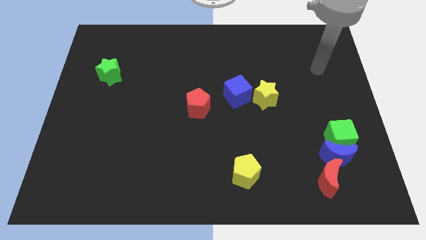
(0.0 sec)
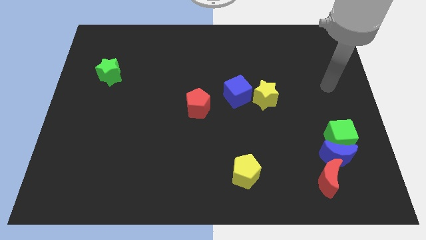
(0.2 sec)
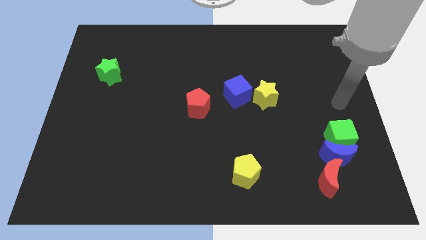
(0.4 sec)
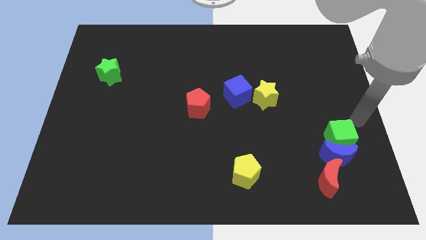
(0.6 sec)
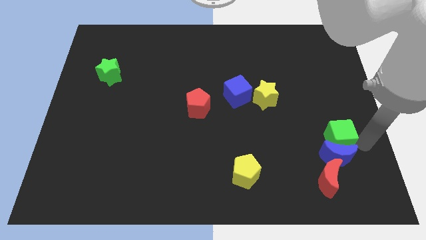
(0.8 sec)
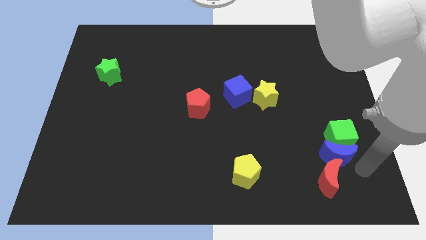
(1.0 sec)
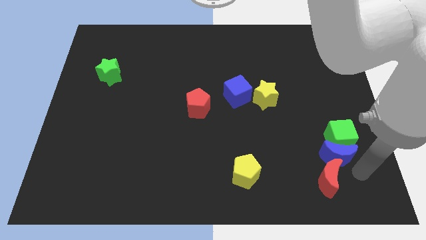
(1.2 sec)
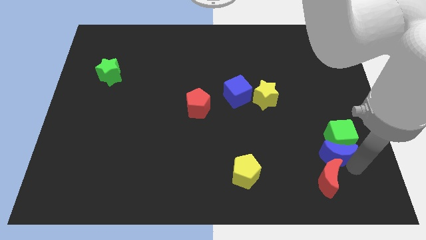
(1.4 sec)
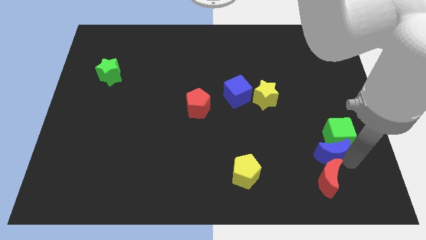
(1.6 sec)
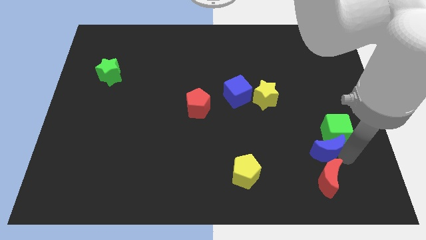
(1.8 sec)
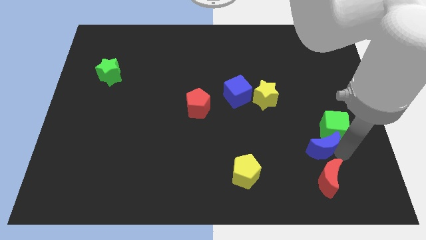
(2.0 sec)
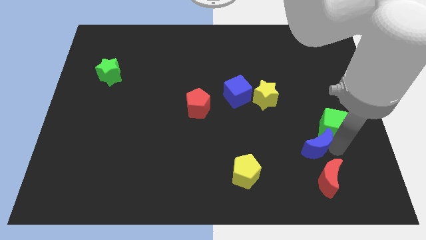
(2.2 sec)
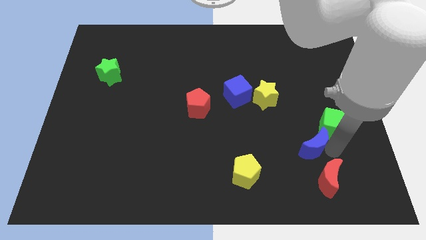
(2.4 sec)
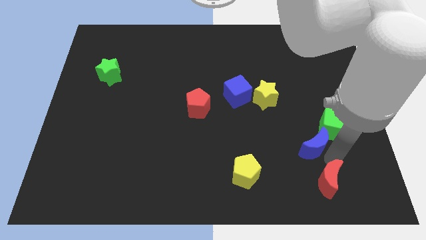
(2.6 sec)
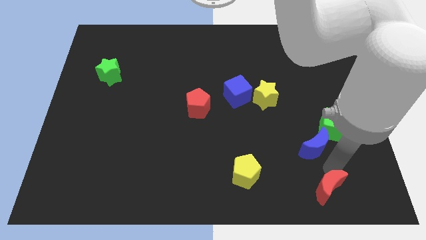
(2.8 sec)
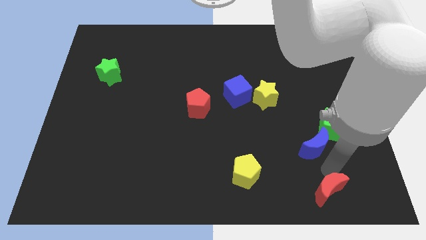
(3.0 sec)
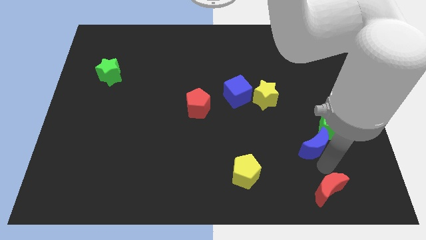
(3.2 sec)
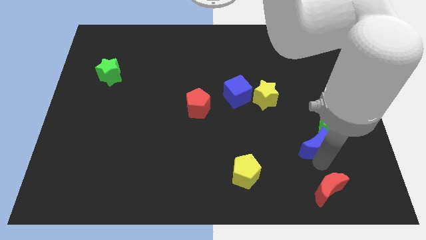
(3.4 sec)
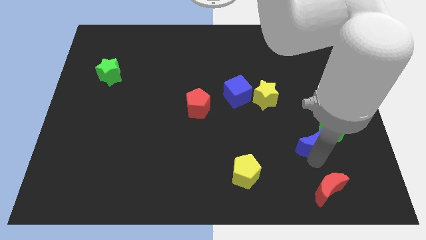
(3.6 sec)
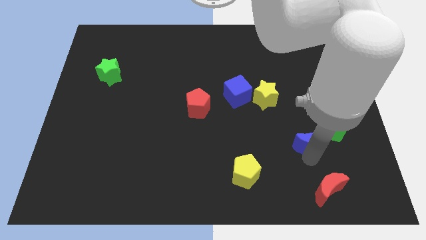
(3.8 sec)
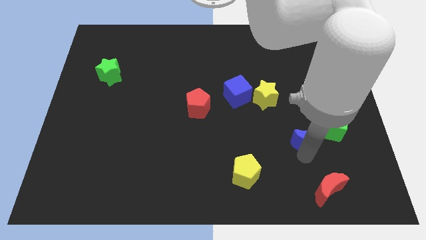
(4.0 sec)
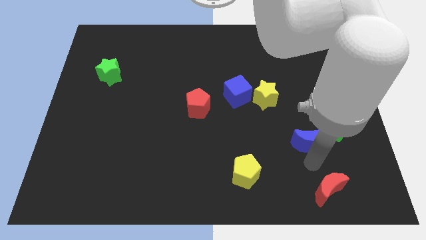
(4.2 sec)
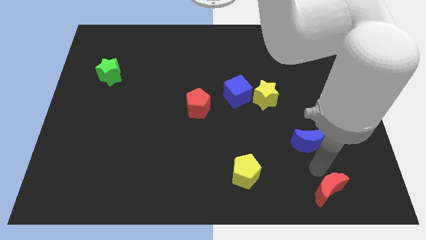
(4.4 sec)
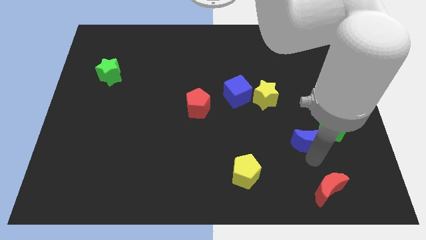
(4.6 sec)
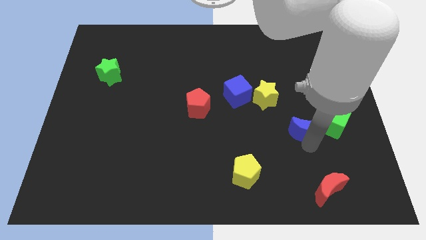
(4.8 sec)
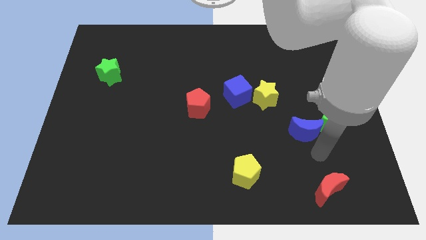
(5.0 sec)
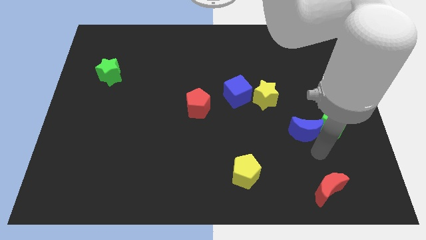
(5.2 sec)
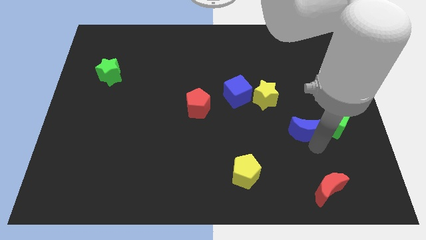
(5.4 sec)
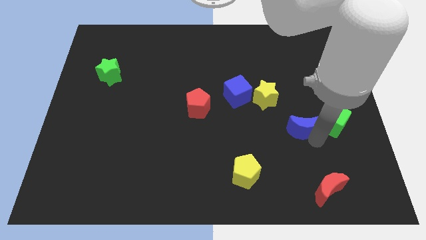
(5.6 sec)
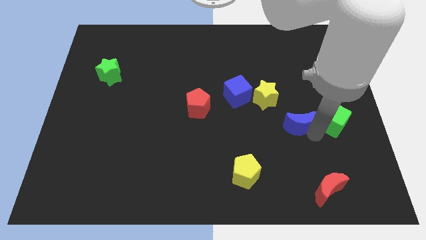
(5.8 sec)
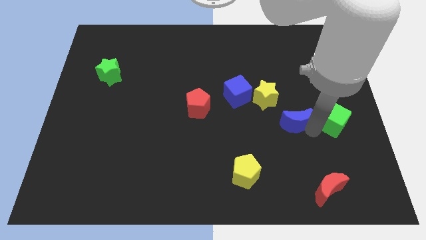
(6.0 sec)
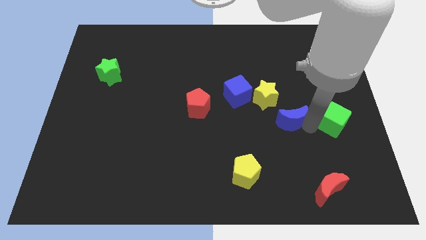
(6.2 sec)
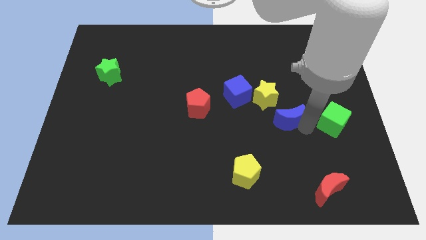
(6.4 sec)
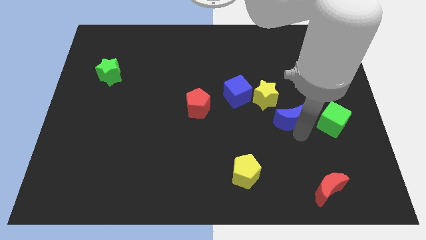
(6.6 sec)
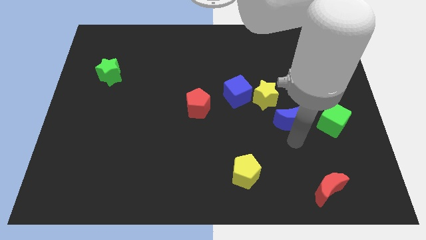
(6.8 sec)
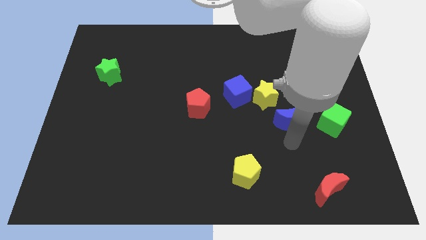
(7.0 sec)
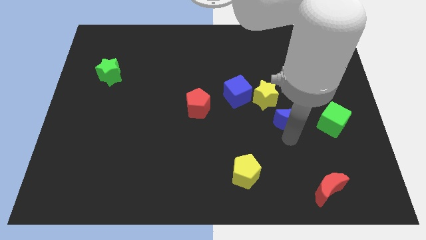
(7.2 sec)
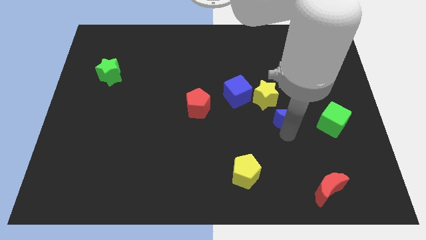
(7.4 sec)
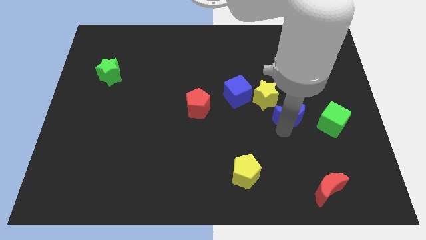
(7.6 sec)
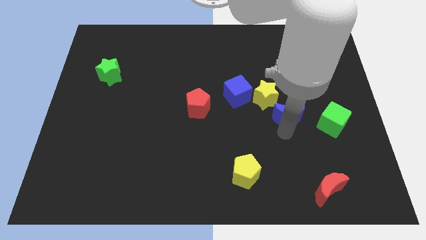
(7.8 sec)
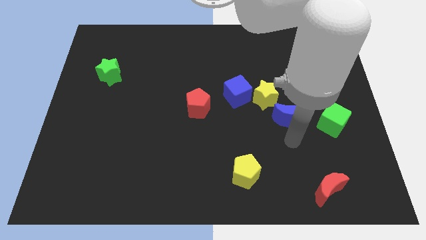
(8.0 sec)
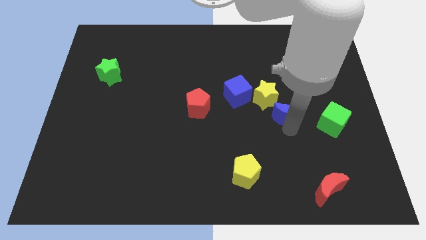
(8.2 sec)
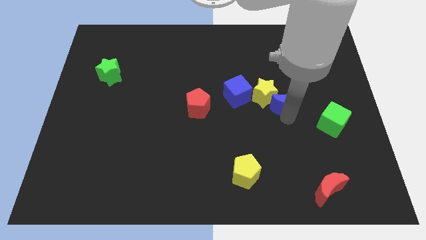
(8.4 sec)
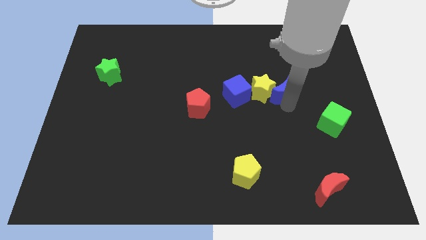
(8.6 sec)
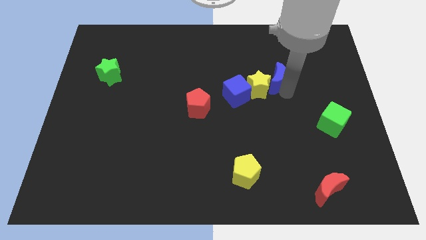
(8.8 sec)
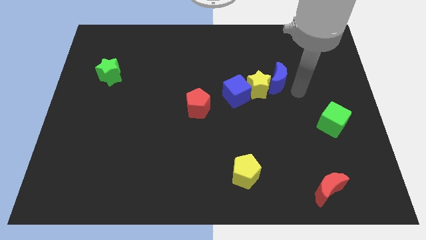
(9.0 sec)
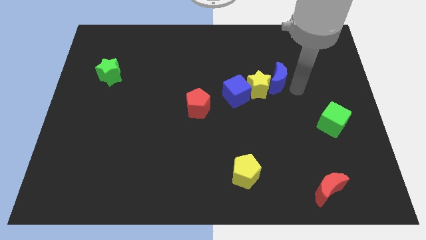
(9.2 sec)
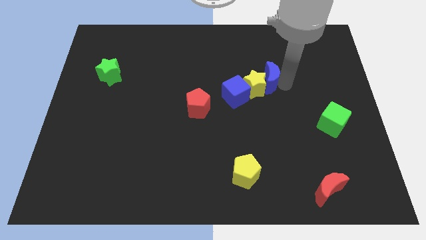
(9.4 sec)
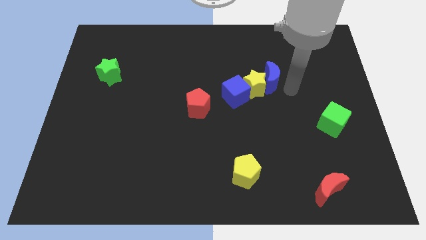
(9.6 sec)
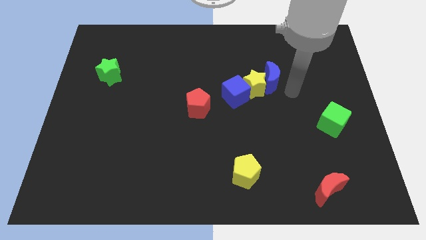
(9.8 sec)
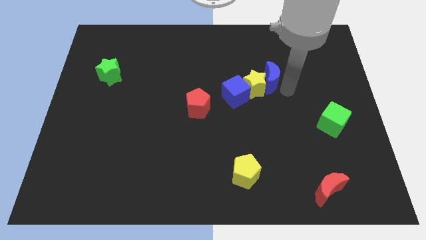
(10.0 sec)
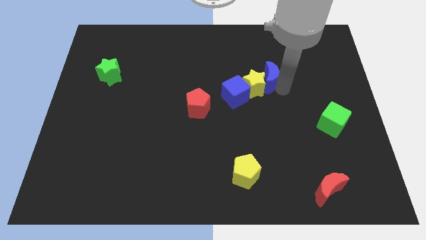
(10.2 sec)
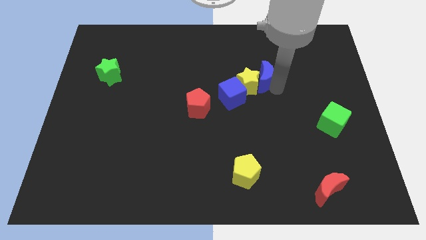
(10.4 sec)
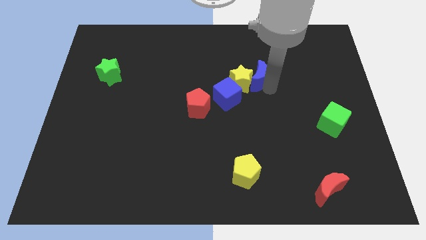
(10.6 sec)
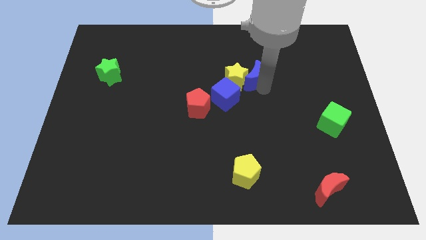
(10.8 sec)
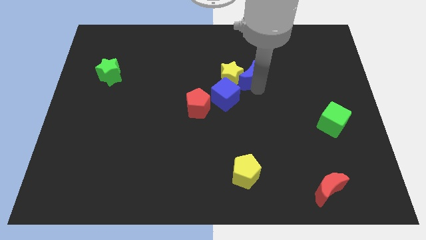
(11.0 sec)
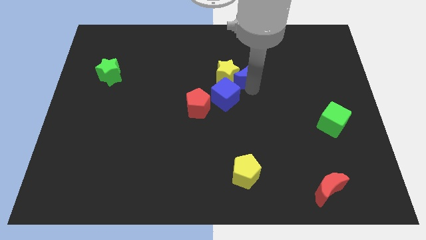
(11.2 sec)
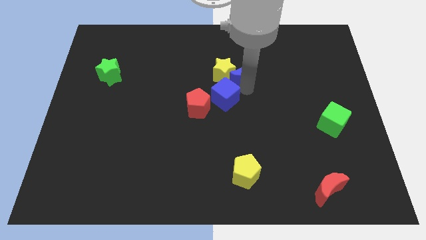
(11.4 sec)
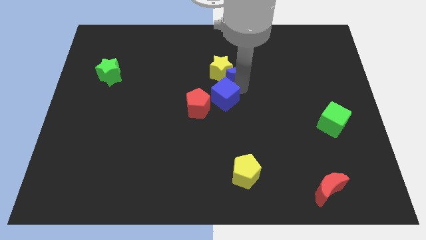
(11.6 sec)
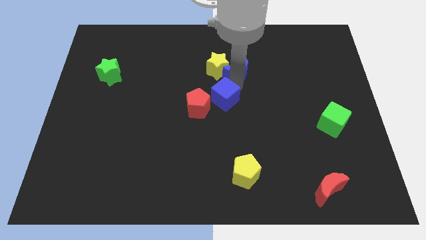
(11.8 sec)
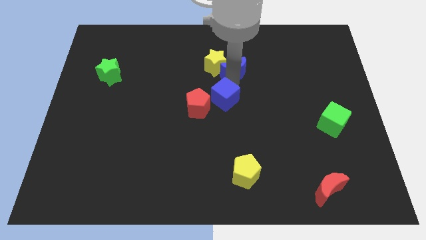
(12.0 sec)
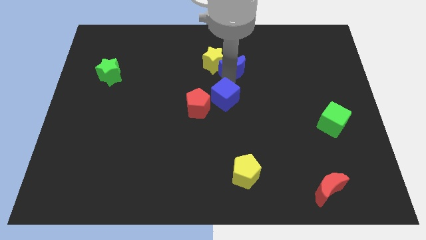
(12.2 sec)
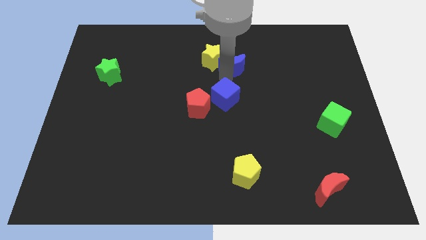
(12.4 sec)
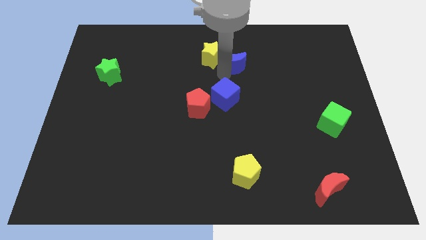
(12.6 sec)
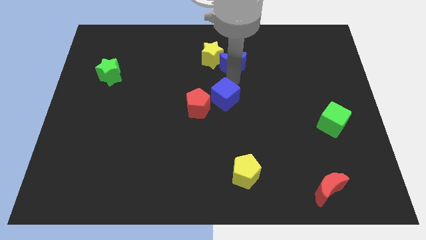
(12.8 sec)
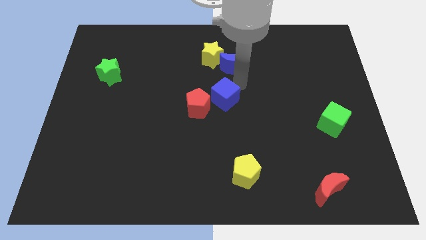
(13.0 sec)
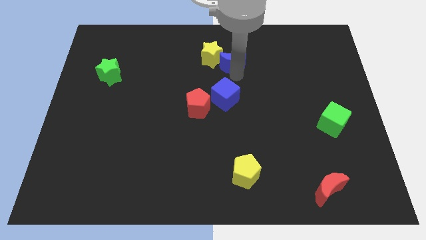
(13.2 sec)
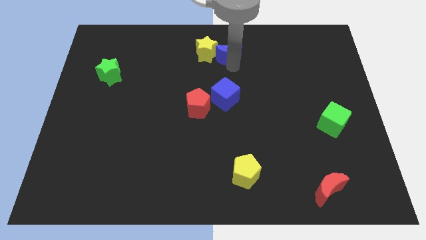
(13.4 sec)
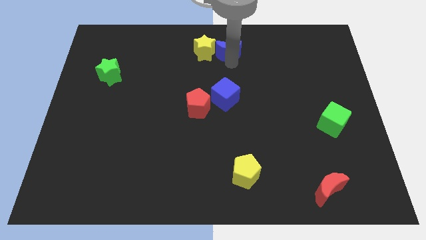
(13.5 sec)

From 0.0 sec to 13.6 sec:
slide the blue moon to the towards your base
